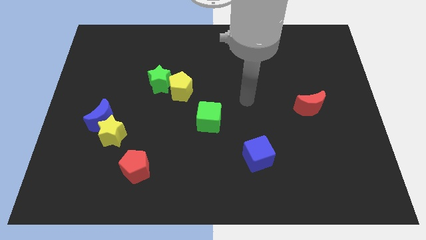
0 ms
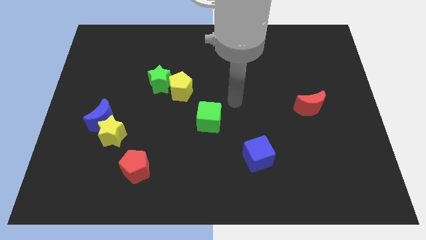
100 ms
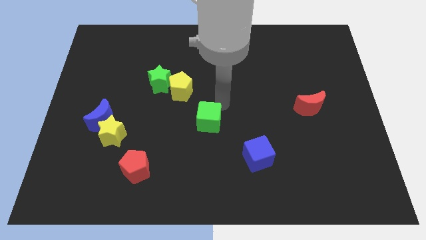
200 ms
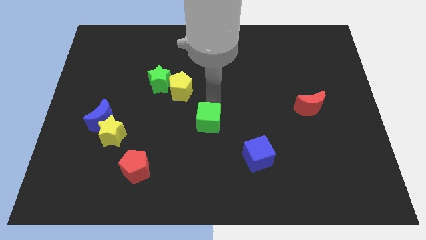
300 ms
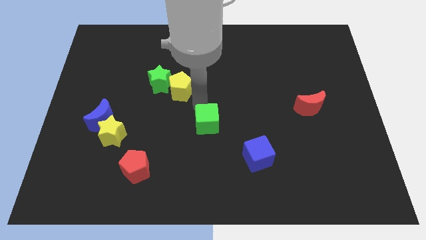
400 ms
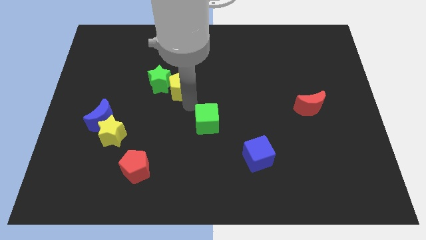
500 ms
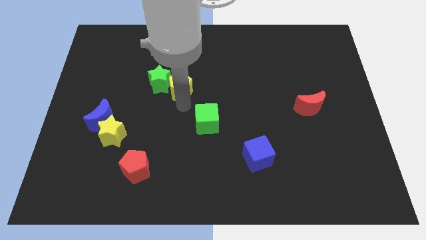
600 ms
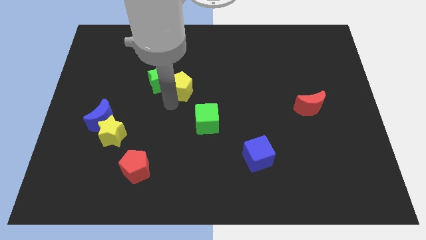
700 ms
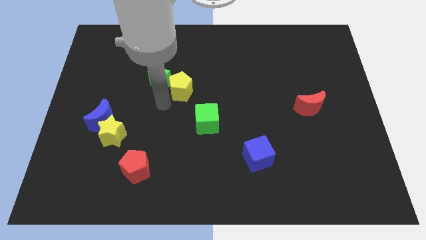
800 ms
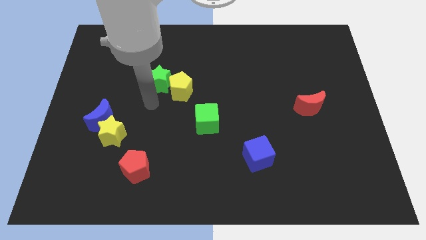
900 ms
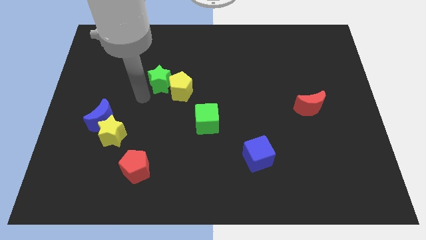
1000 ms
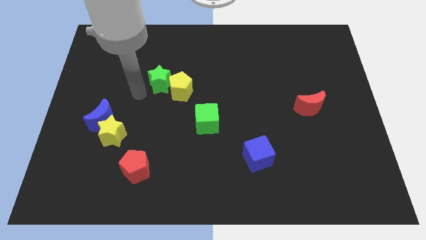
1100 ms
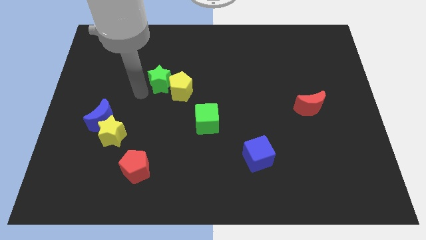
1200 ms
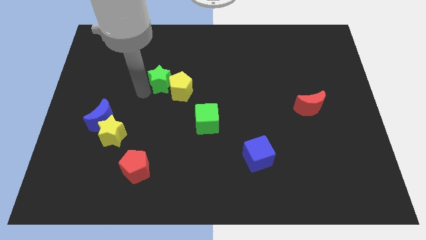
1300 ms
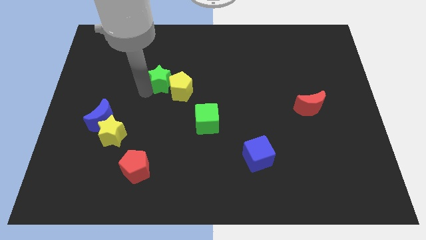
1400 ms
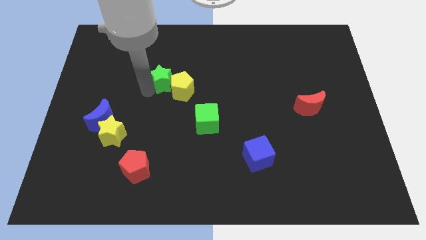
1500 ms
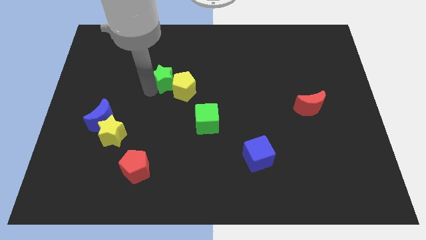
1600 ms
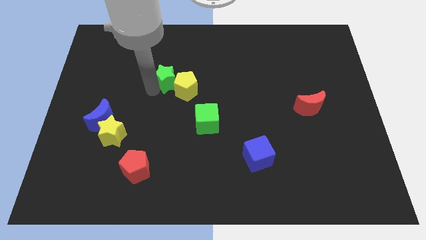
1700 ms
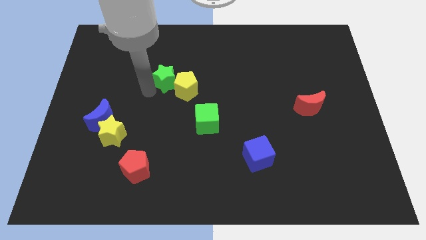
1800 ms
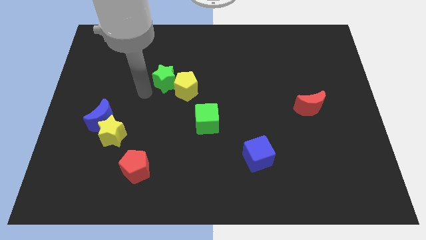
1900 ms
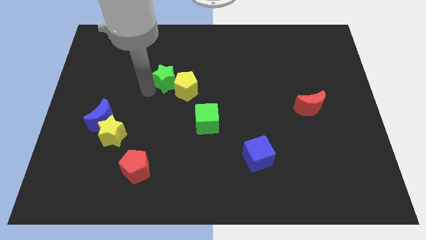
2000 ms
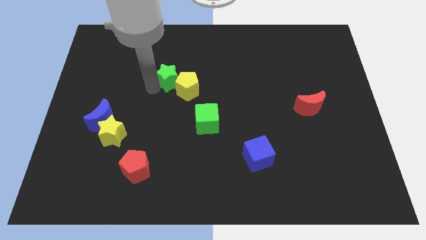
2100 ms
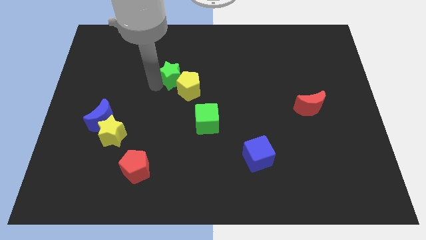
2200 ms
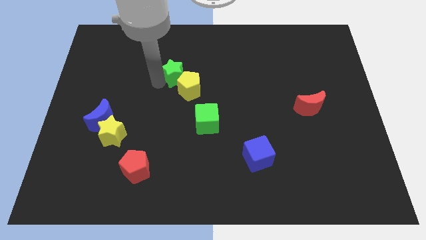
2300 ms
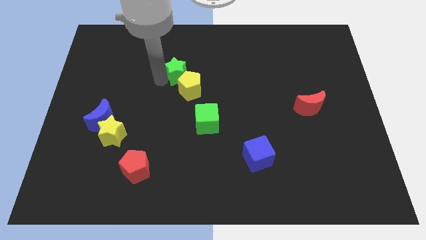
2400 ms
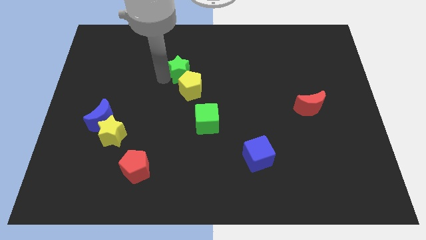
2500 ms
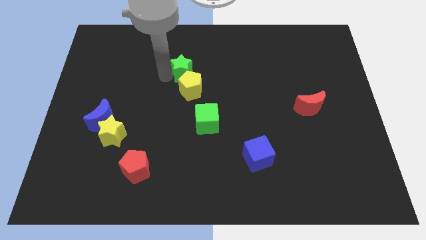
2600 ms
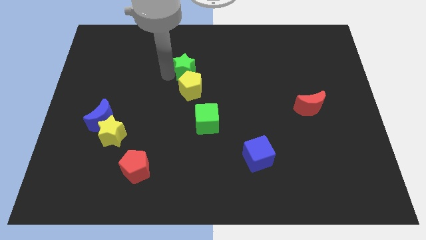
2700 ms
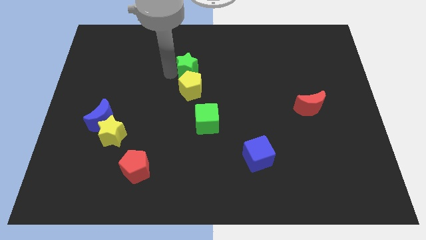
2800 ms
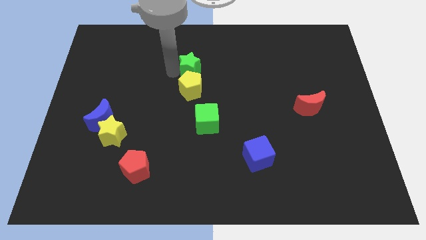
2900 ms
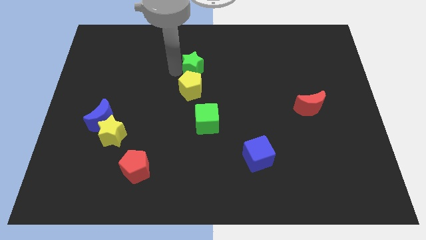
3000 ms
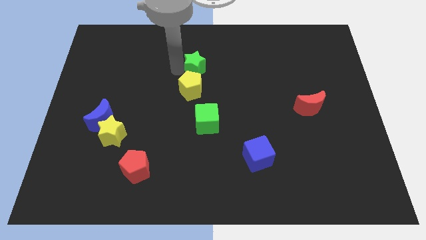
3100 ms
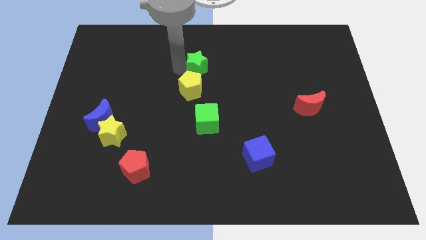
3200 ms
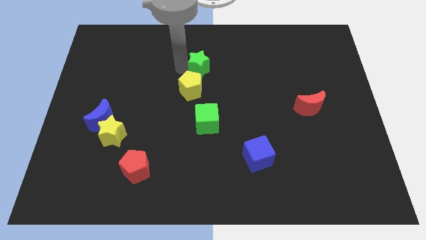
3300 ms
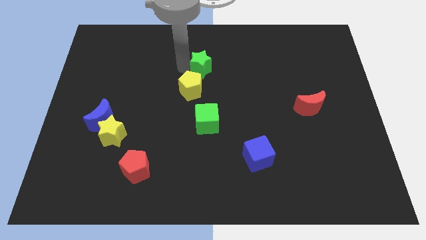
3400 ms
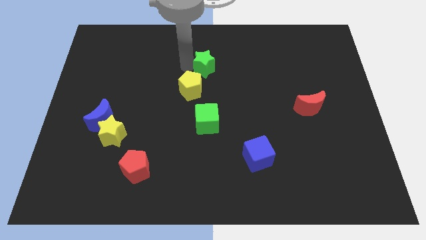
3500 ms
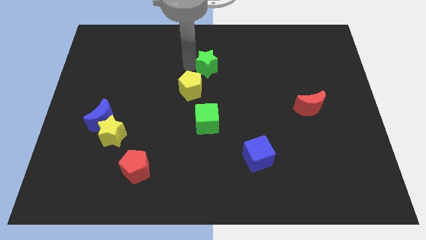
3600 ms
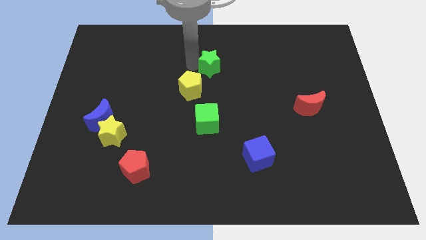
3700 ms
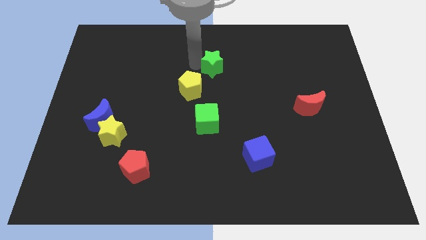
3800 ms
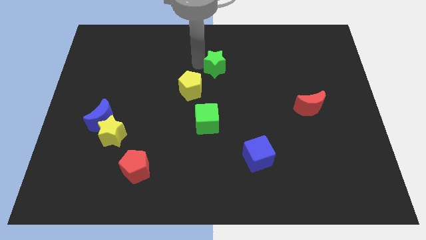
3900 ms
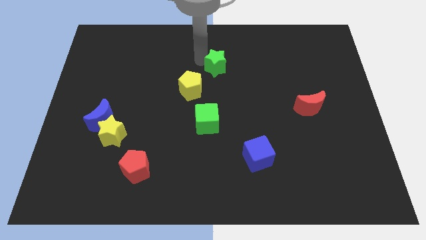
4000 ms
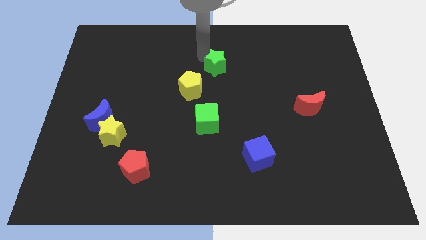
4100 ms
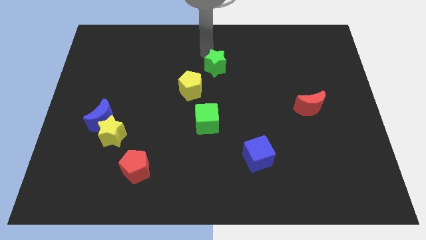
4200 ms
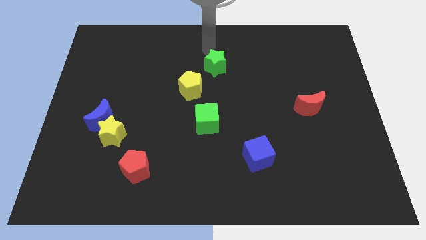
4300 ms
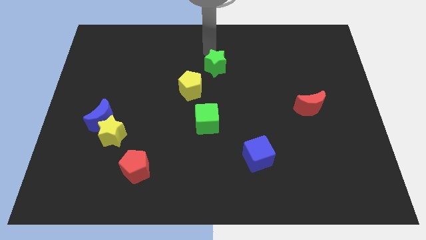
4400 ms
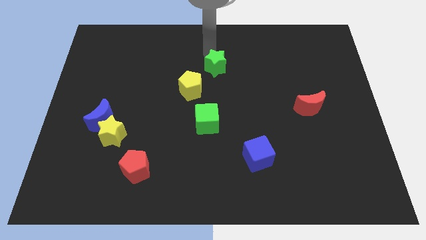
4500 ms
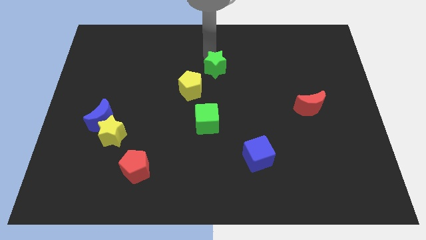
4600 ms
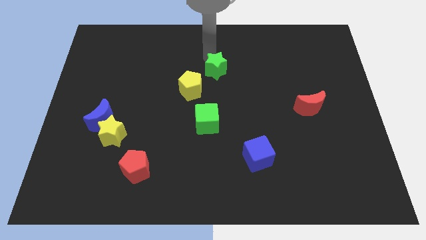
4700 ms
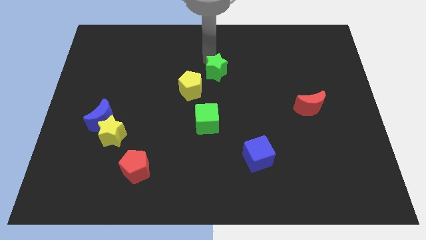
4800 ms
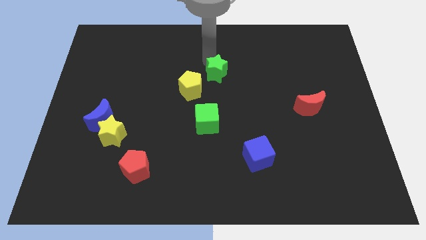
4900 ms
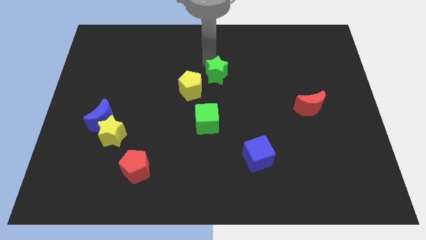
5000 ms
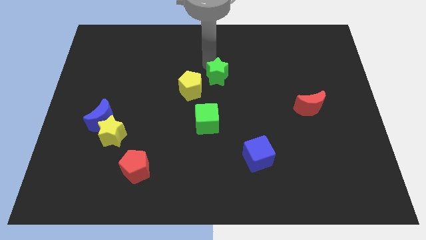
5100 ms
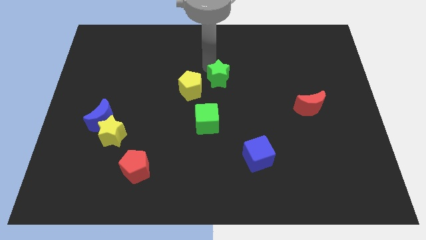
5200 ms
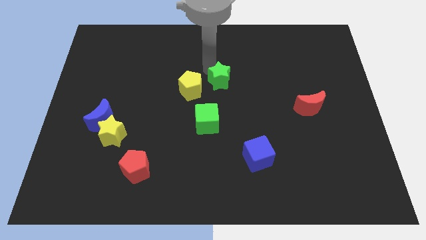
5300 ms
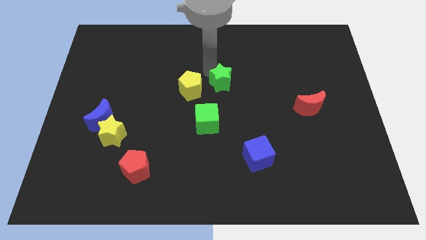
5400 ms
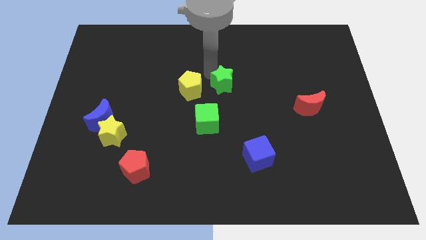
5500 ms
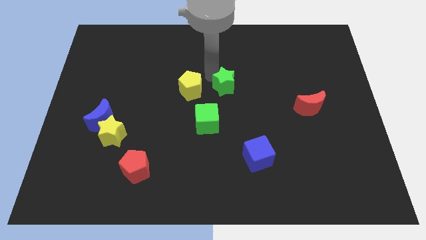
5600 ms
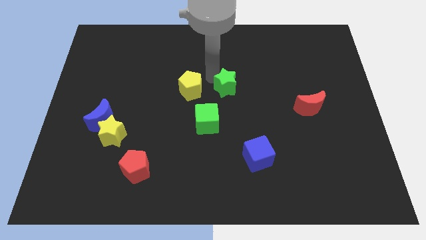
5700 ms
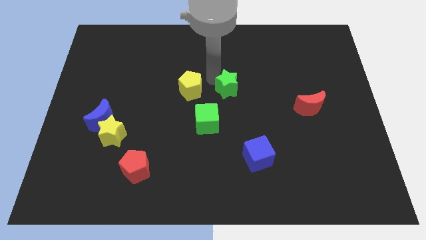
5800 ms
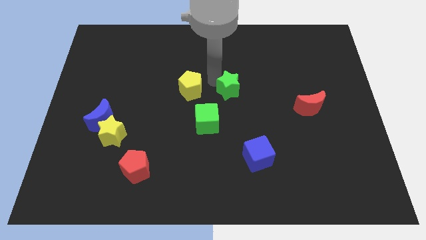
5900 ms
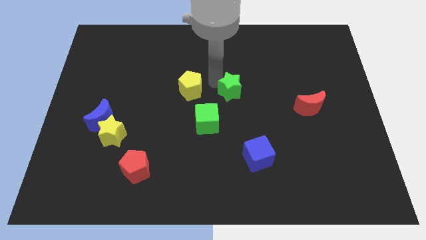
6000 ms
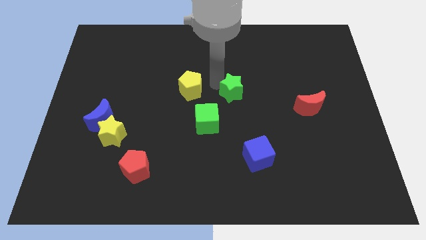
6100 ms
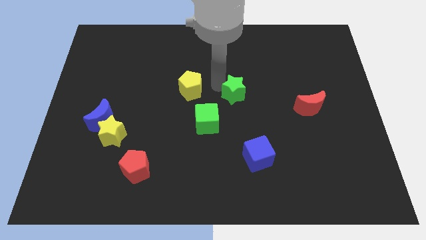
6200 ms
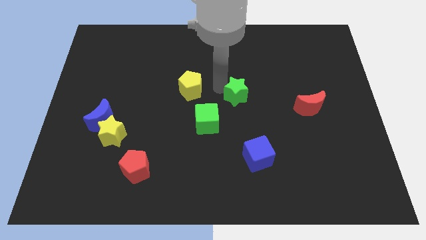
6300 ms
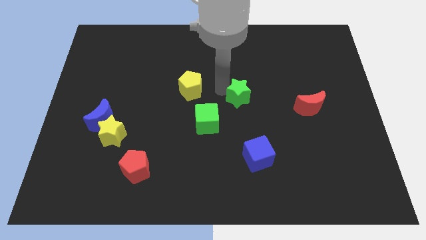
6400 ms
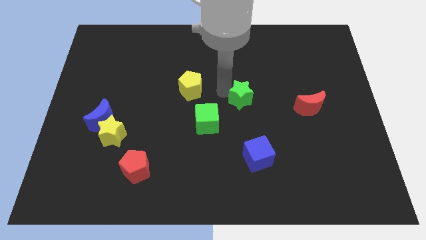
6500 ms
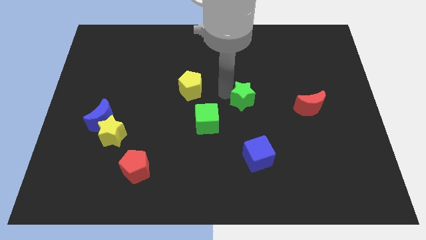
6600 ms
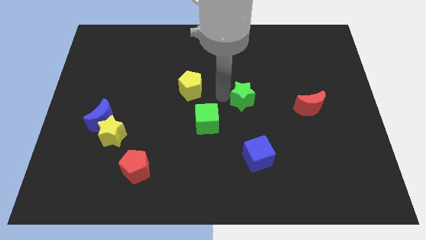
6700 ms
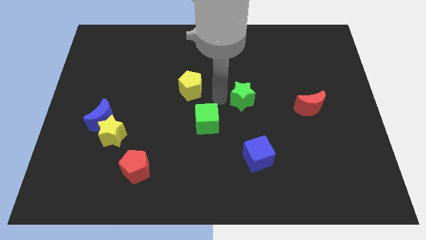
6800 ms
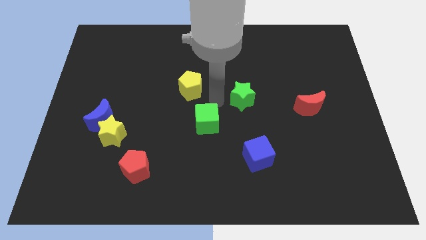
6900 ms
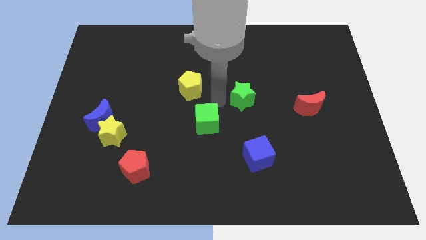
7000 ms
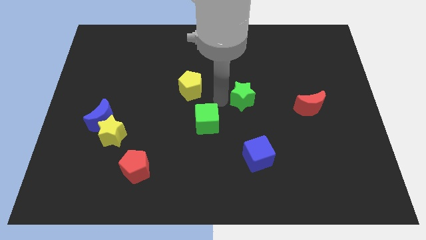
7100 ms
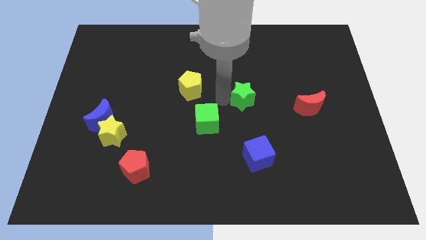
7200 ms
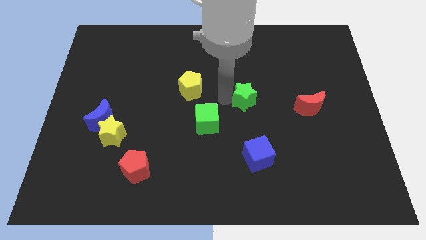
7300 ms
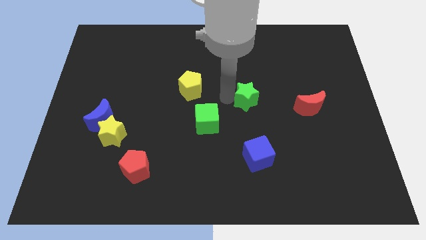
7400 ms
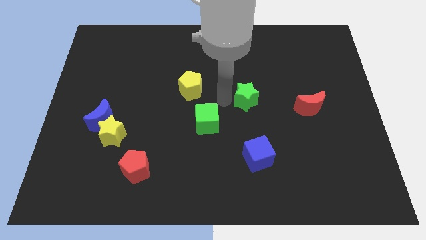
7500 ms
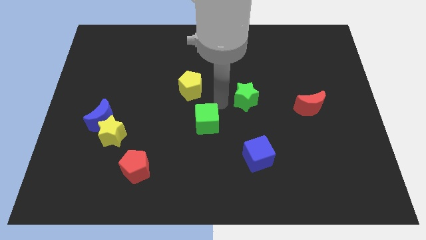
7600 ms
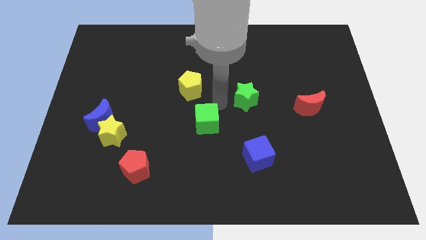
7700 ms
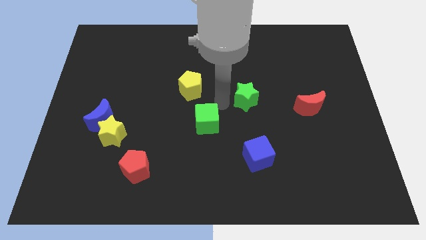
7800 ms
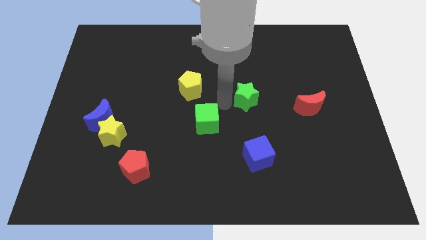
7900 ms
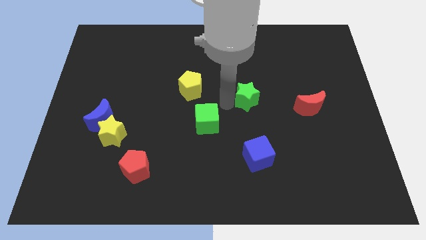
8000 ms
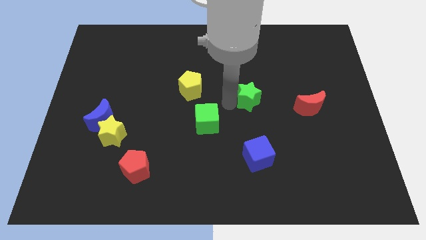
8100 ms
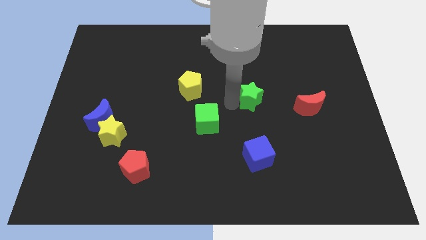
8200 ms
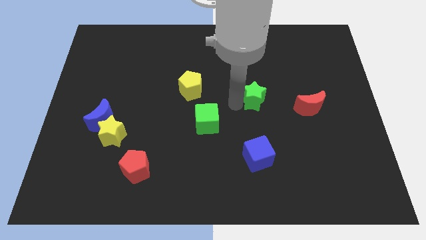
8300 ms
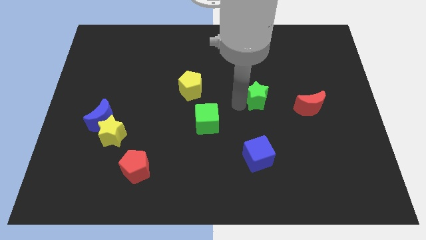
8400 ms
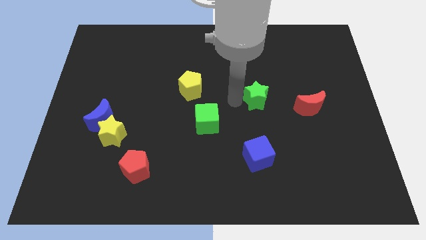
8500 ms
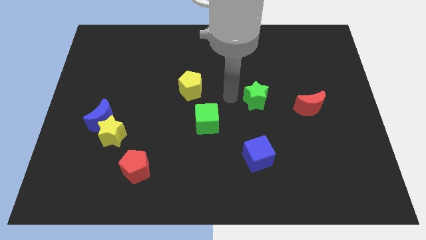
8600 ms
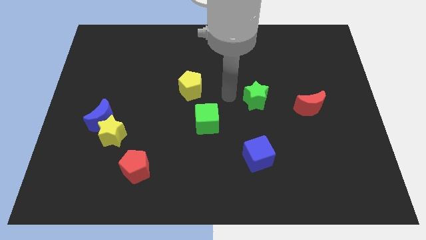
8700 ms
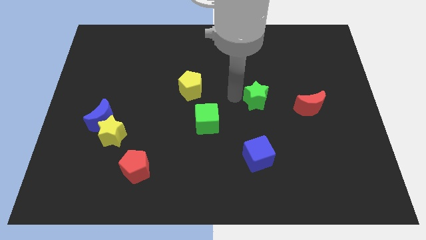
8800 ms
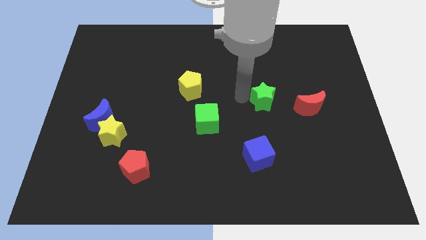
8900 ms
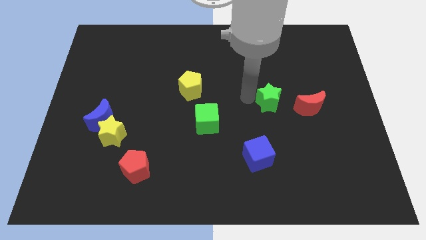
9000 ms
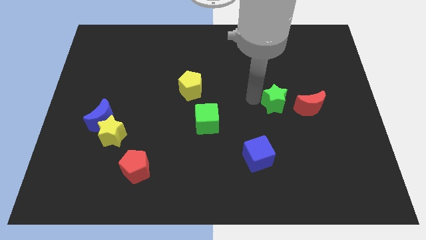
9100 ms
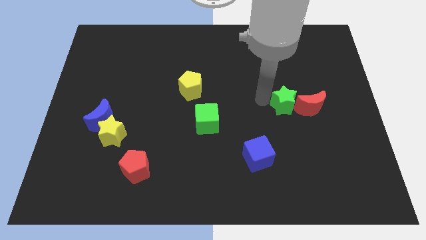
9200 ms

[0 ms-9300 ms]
put the green star to the red moon
